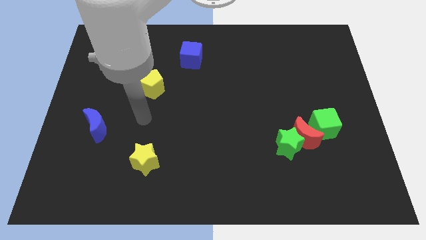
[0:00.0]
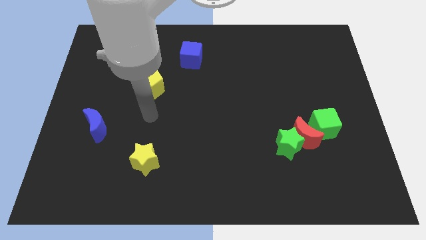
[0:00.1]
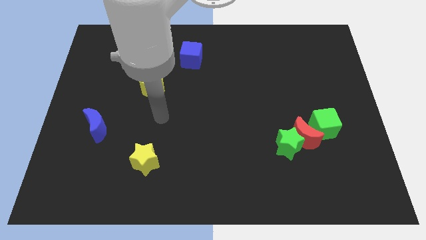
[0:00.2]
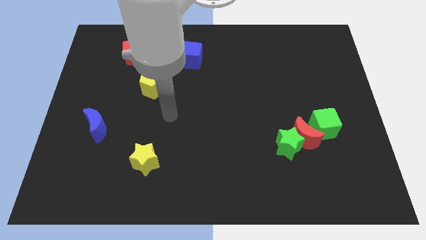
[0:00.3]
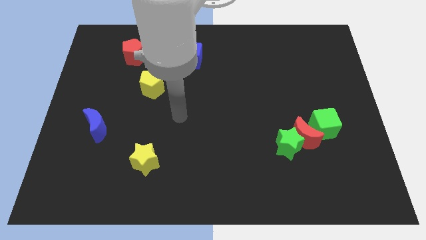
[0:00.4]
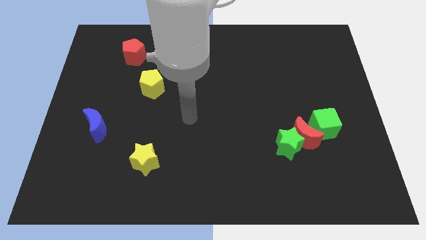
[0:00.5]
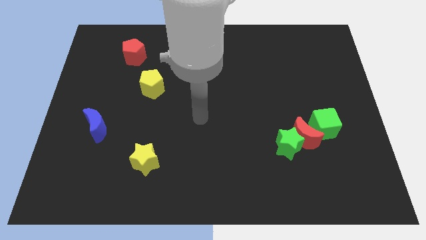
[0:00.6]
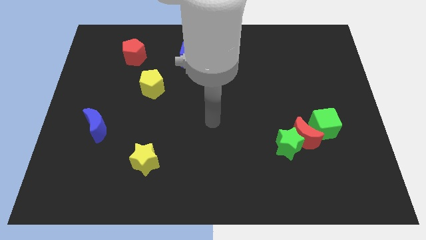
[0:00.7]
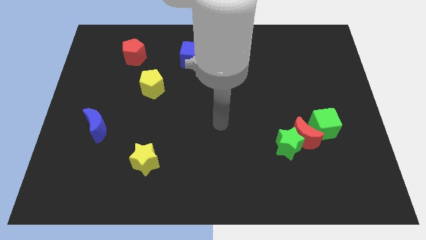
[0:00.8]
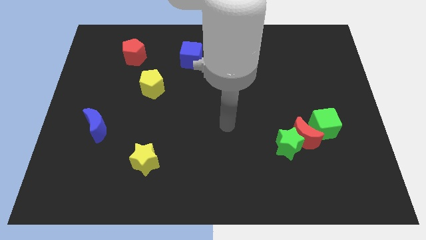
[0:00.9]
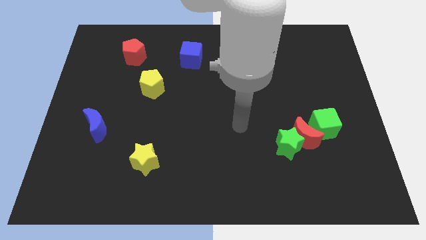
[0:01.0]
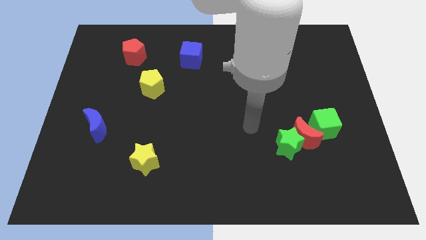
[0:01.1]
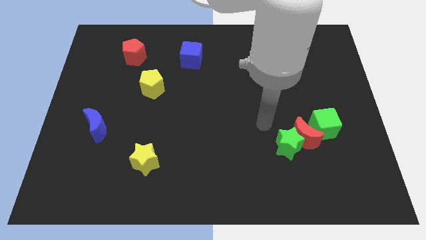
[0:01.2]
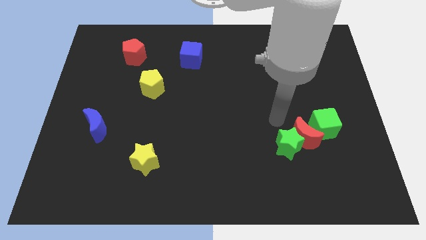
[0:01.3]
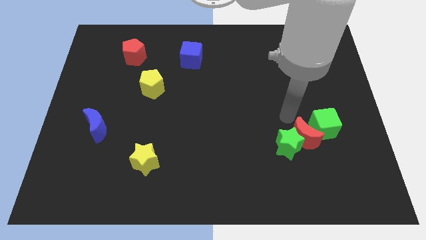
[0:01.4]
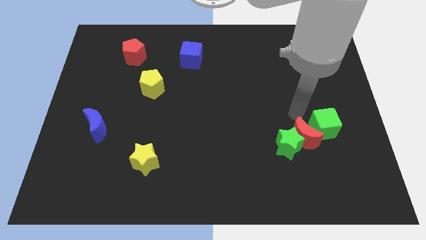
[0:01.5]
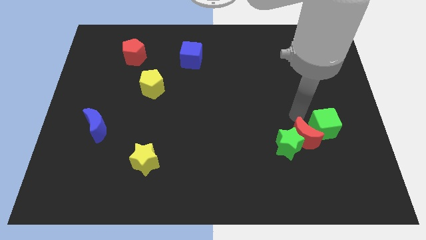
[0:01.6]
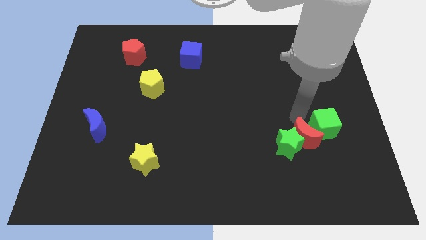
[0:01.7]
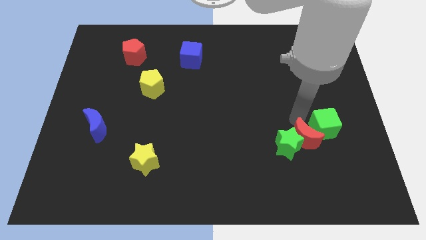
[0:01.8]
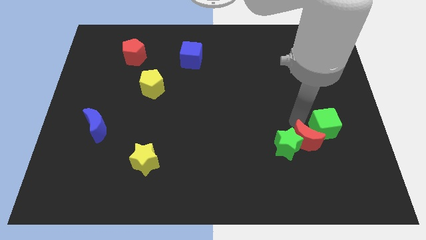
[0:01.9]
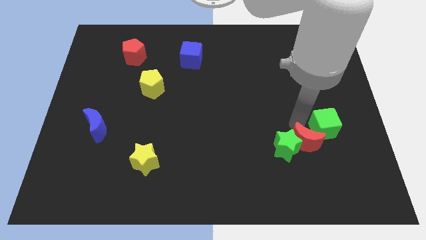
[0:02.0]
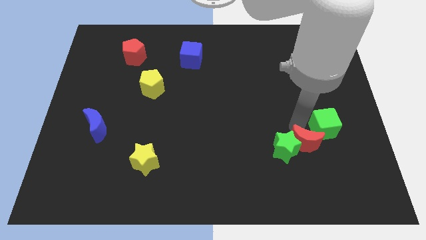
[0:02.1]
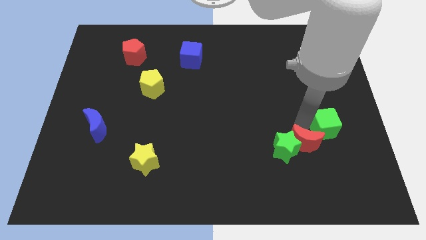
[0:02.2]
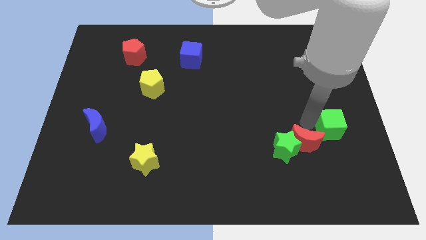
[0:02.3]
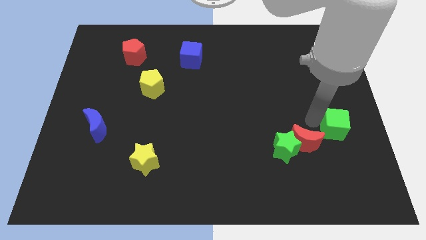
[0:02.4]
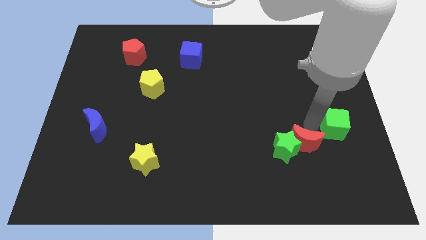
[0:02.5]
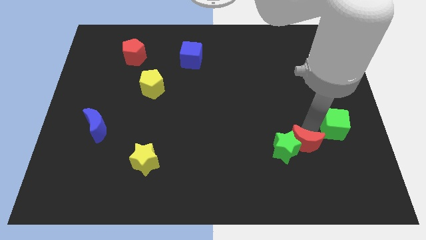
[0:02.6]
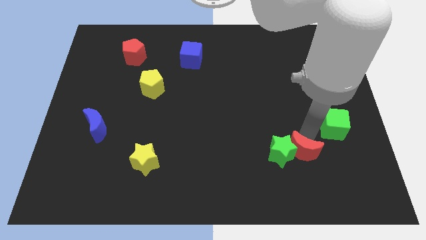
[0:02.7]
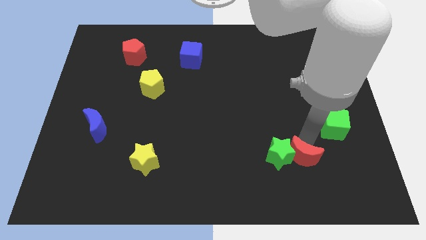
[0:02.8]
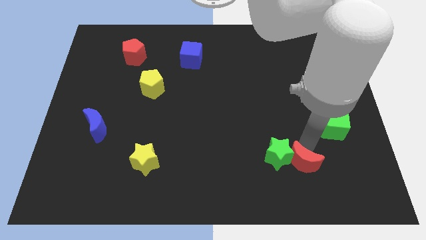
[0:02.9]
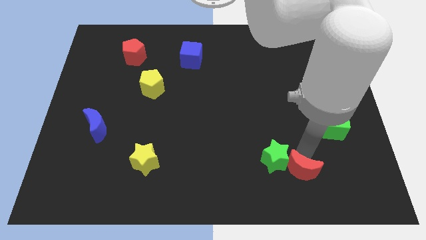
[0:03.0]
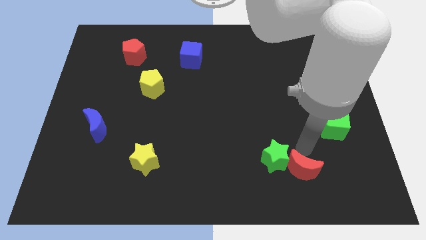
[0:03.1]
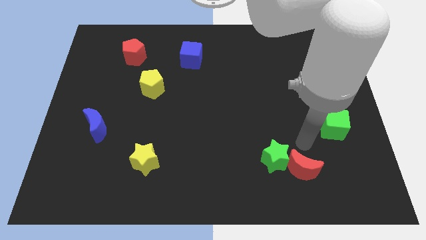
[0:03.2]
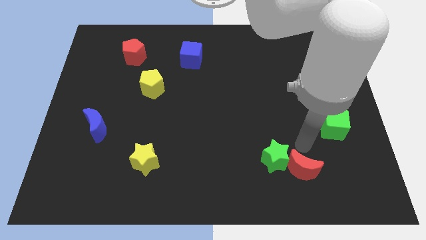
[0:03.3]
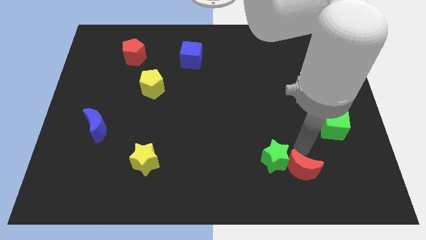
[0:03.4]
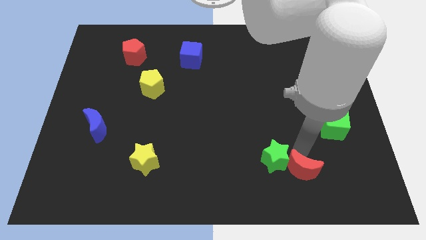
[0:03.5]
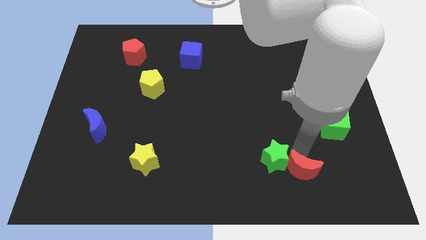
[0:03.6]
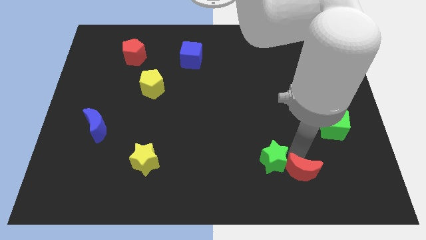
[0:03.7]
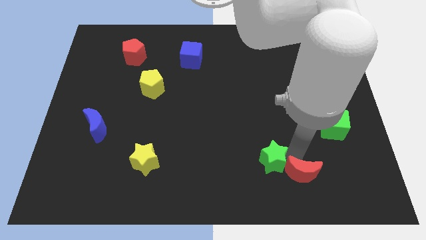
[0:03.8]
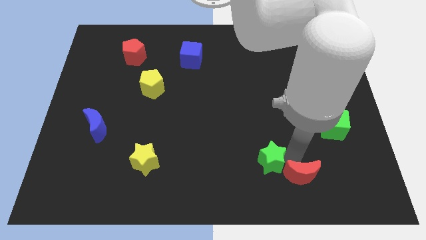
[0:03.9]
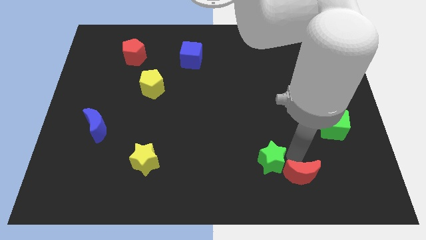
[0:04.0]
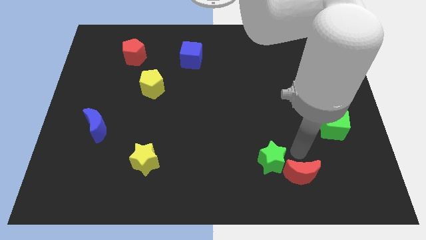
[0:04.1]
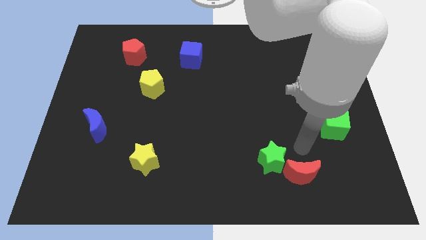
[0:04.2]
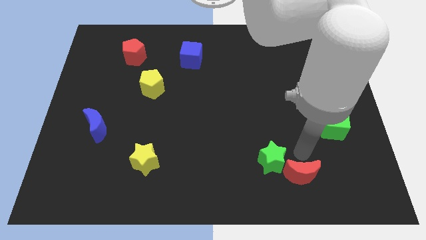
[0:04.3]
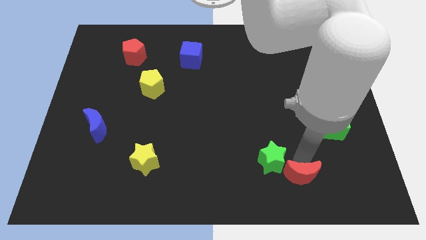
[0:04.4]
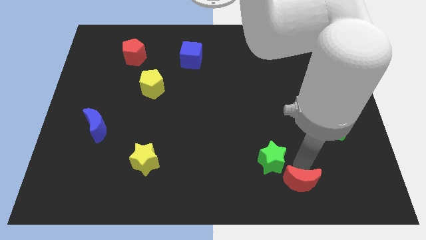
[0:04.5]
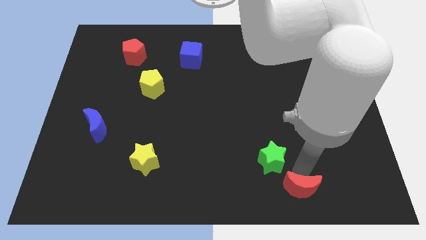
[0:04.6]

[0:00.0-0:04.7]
separate the red moon from the green star and green cube

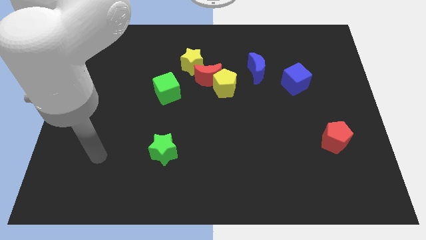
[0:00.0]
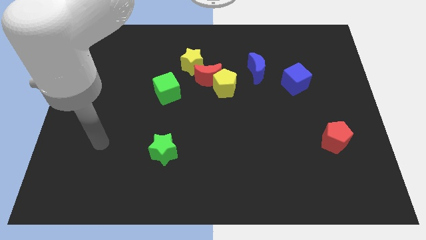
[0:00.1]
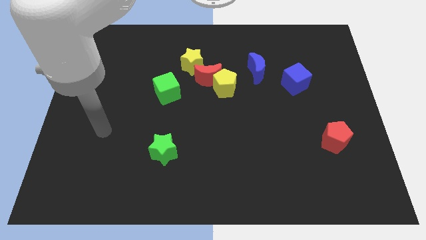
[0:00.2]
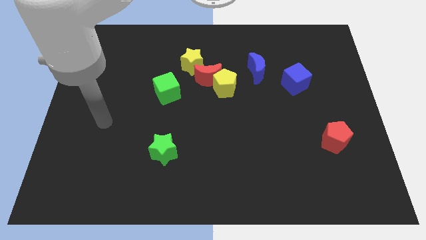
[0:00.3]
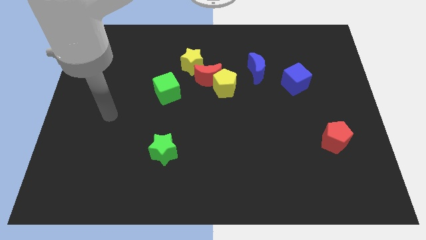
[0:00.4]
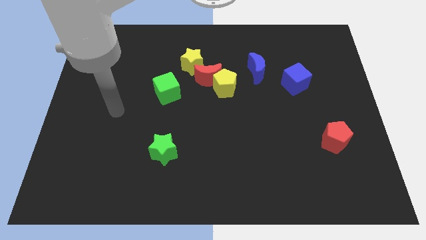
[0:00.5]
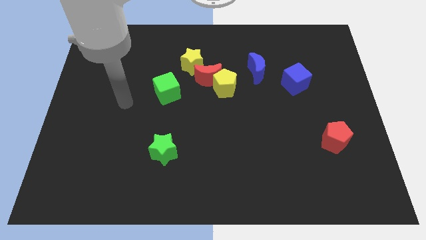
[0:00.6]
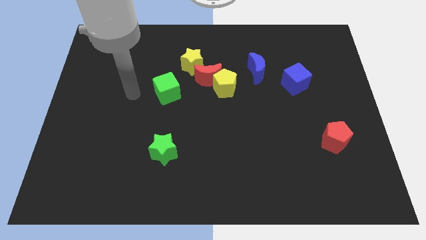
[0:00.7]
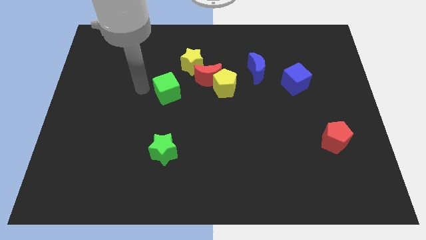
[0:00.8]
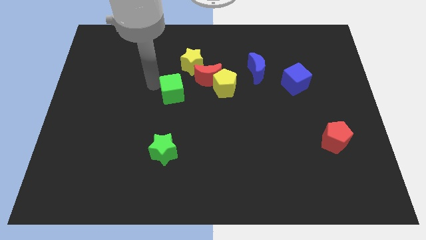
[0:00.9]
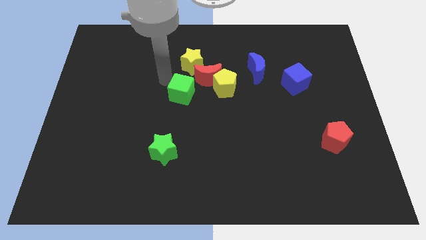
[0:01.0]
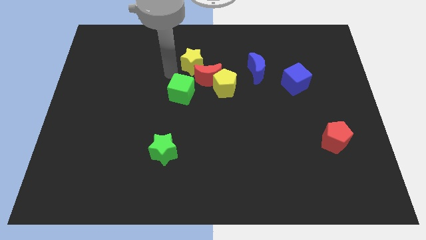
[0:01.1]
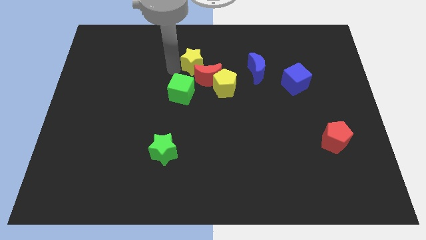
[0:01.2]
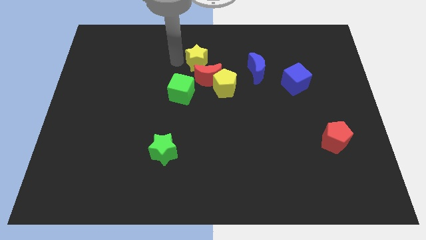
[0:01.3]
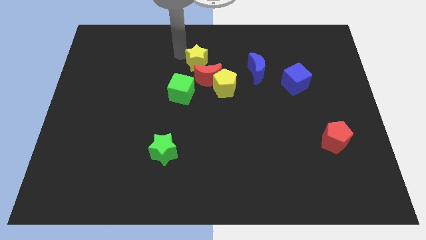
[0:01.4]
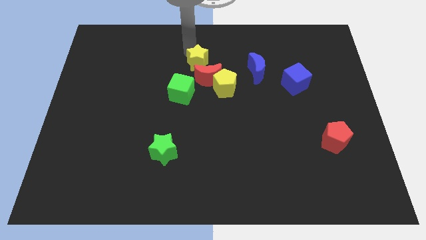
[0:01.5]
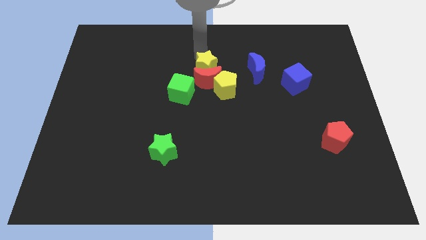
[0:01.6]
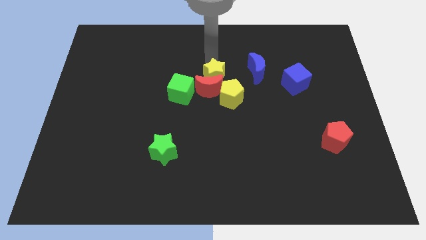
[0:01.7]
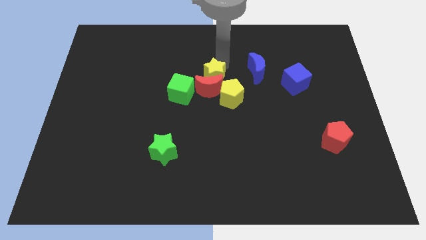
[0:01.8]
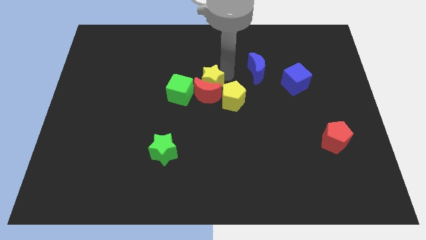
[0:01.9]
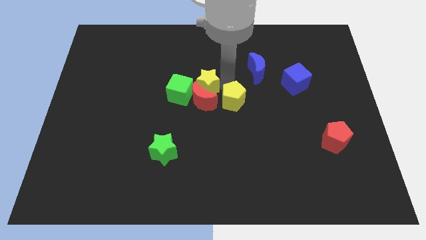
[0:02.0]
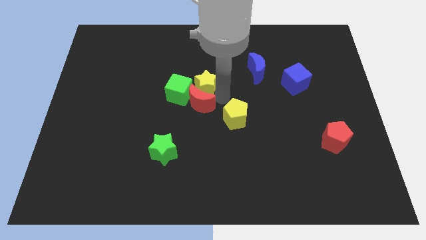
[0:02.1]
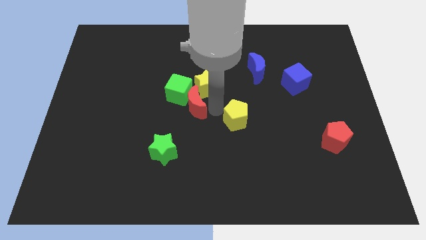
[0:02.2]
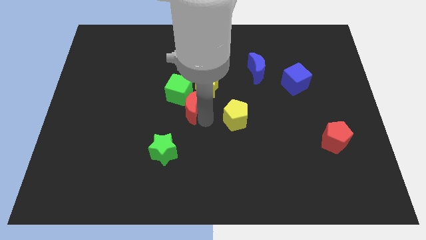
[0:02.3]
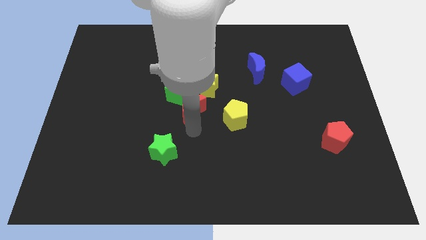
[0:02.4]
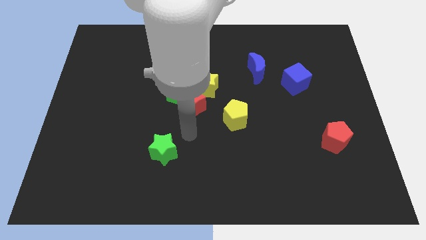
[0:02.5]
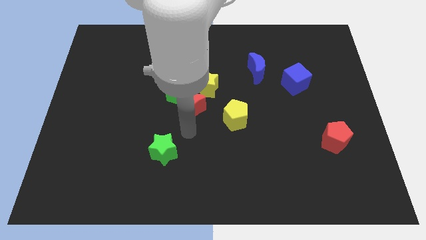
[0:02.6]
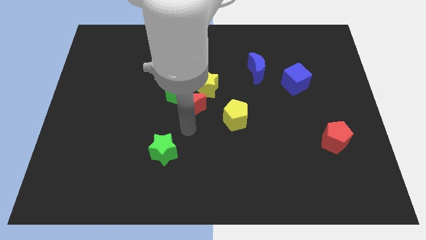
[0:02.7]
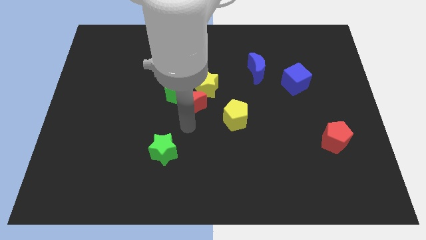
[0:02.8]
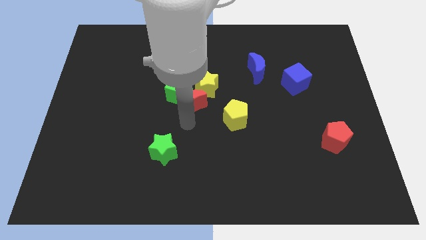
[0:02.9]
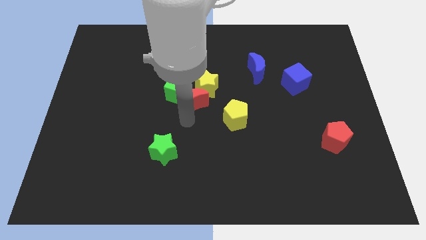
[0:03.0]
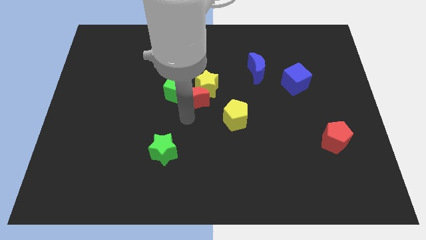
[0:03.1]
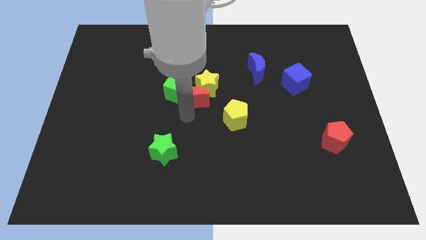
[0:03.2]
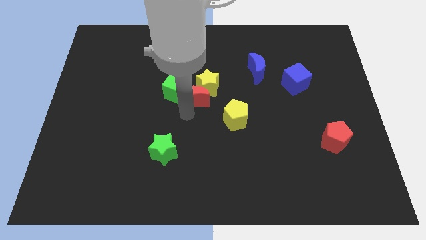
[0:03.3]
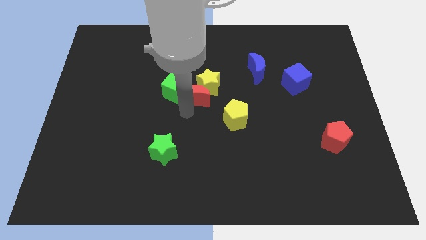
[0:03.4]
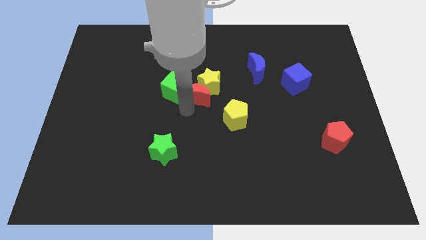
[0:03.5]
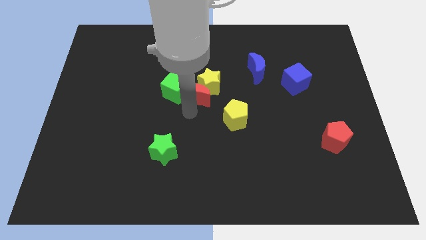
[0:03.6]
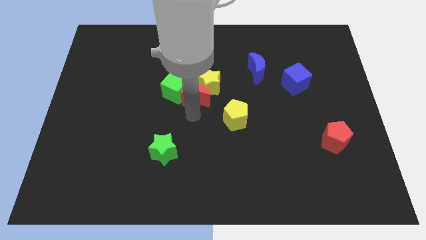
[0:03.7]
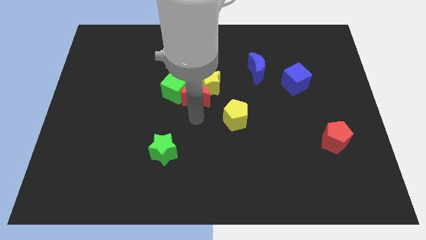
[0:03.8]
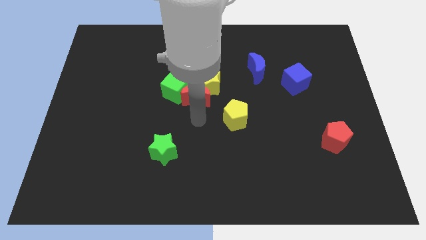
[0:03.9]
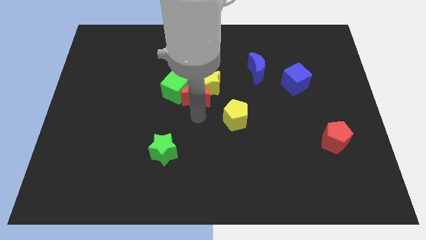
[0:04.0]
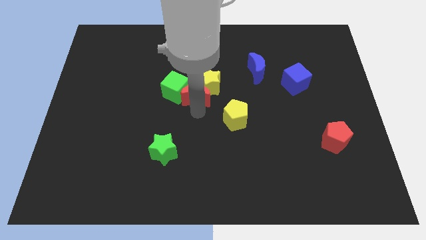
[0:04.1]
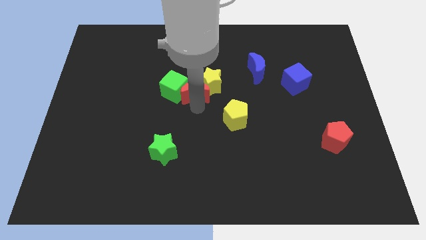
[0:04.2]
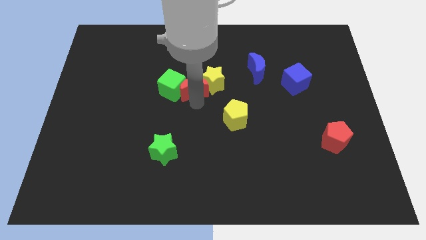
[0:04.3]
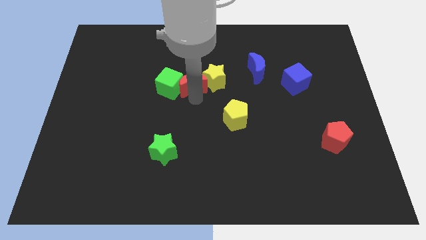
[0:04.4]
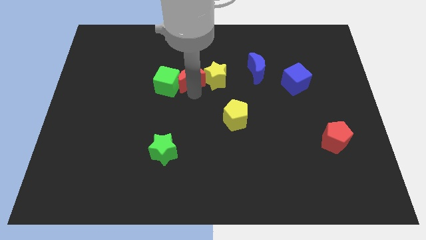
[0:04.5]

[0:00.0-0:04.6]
separate the red moon from the yellow pentagon and yellow star

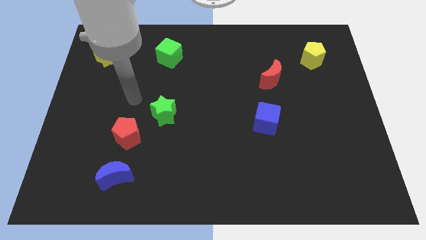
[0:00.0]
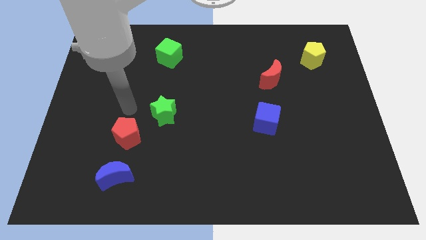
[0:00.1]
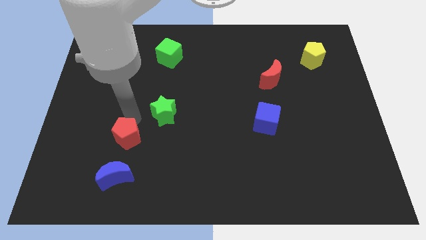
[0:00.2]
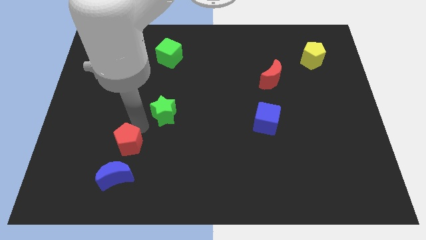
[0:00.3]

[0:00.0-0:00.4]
move the green star away from the red pentagon
